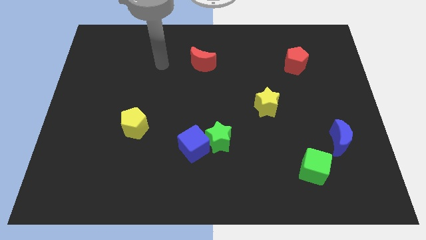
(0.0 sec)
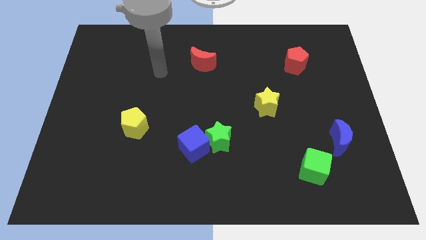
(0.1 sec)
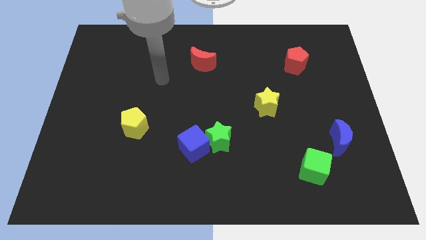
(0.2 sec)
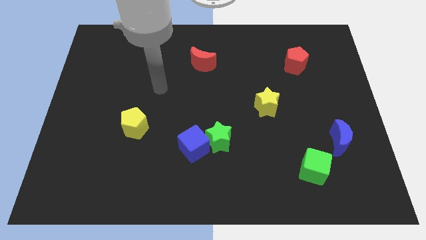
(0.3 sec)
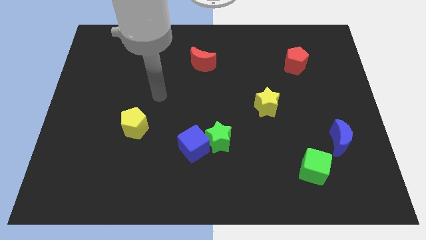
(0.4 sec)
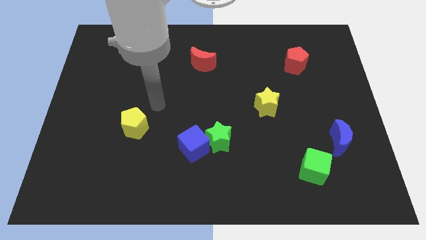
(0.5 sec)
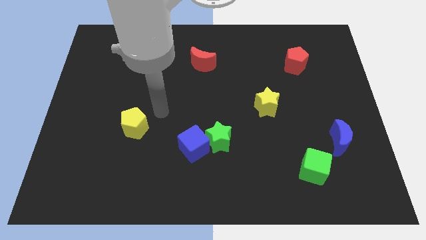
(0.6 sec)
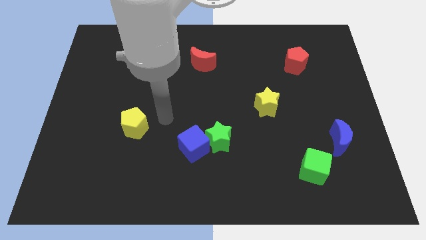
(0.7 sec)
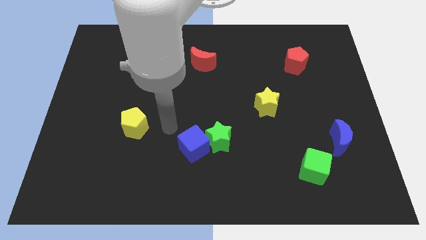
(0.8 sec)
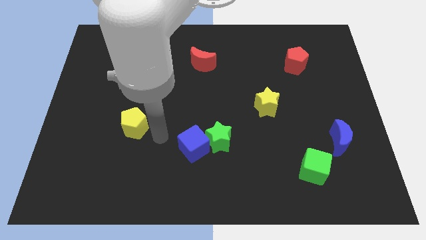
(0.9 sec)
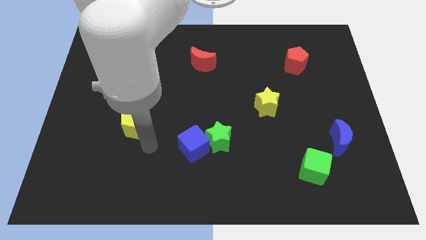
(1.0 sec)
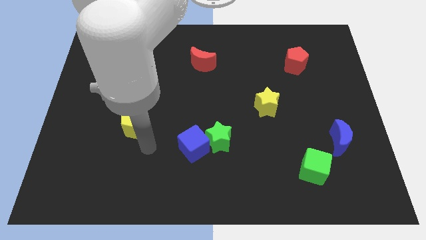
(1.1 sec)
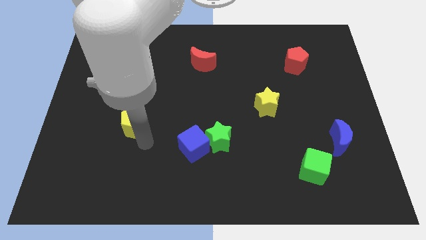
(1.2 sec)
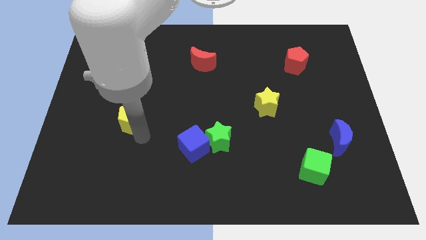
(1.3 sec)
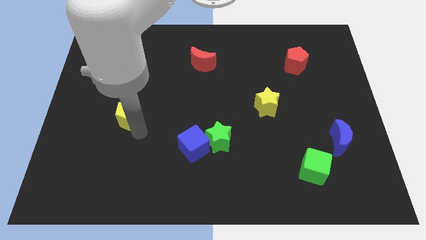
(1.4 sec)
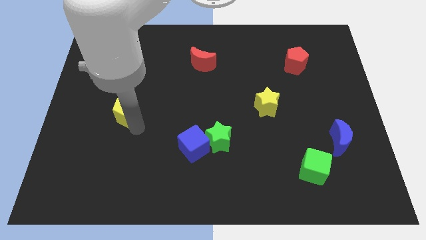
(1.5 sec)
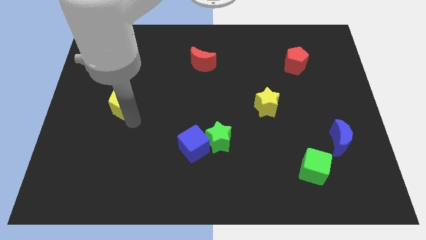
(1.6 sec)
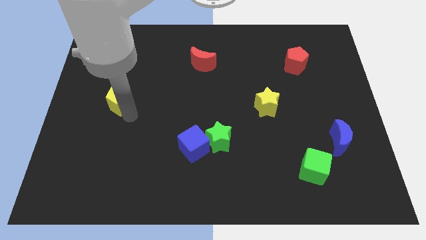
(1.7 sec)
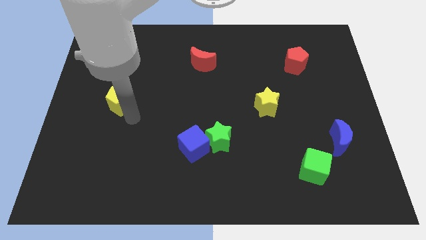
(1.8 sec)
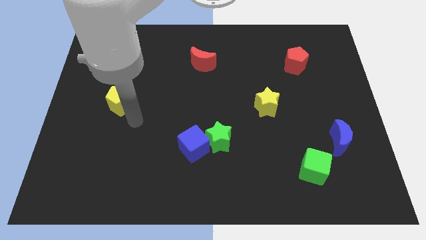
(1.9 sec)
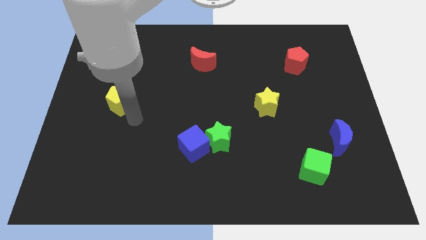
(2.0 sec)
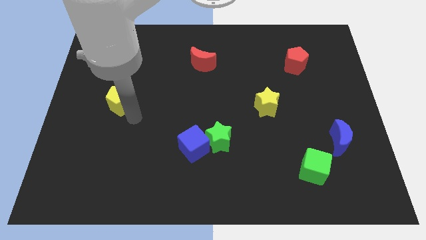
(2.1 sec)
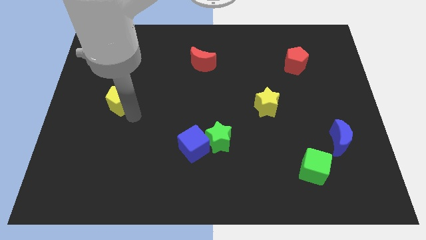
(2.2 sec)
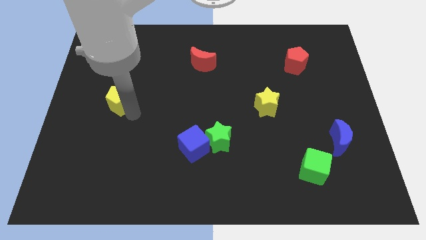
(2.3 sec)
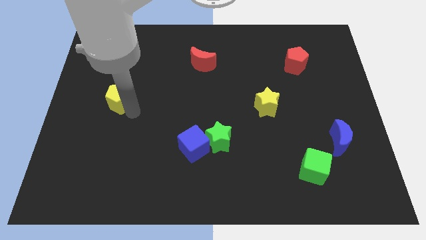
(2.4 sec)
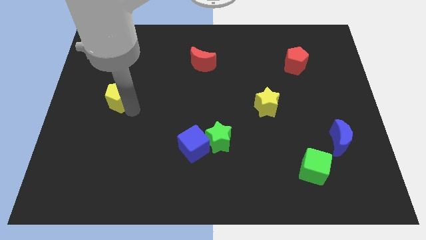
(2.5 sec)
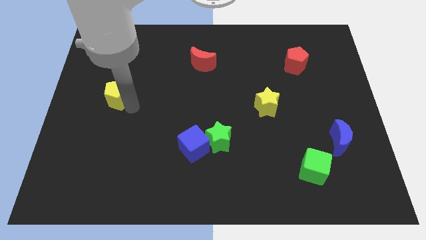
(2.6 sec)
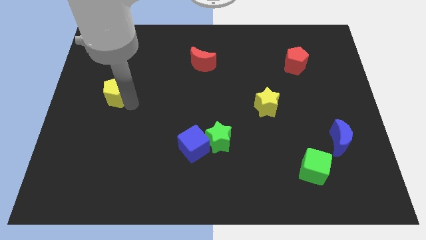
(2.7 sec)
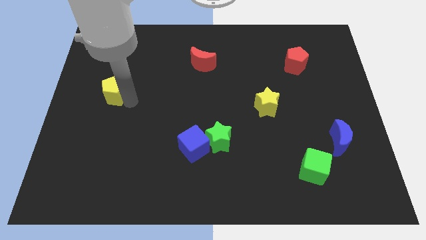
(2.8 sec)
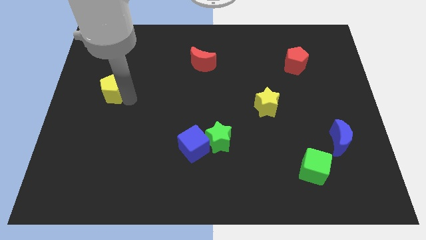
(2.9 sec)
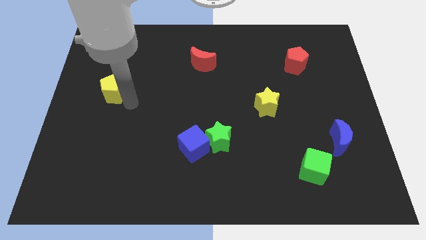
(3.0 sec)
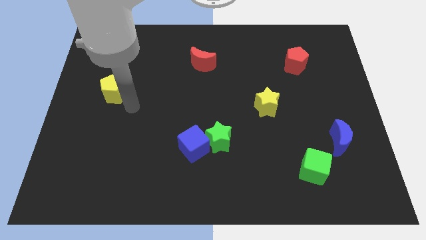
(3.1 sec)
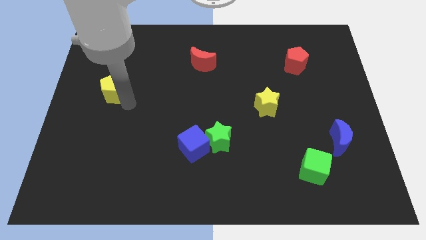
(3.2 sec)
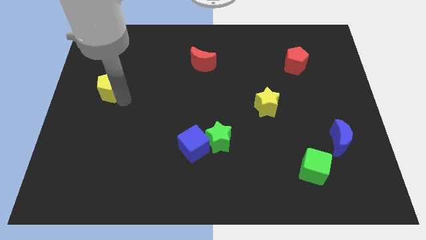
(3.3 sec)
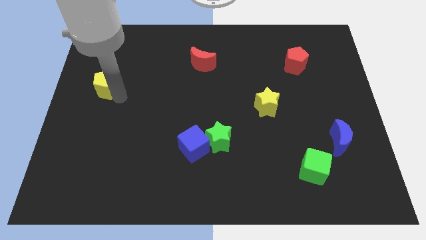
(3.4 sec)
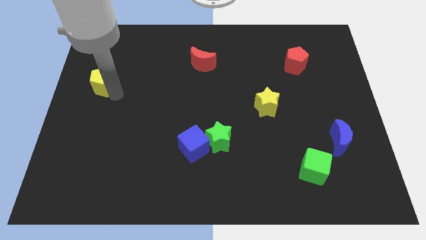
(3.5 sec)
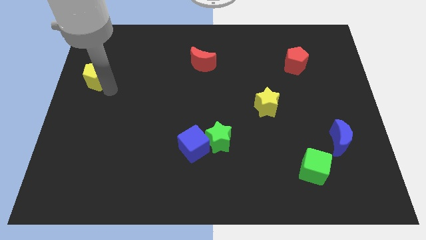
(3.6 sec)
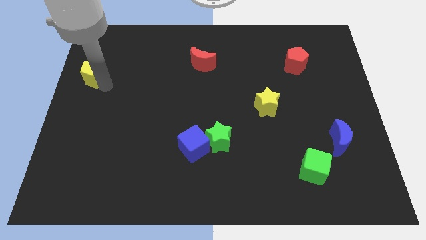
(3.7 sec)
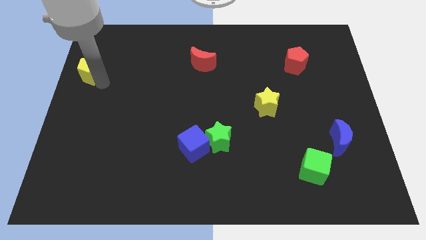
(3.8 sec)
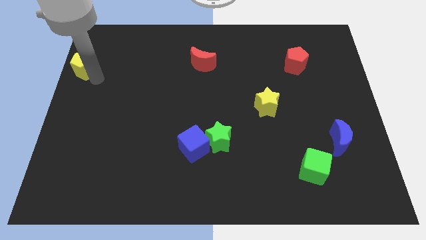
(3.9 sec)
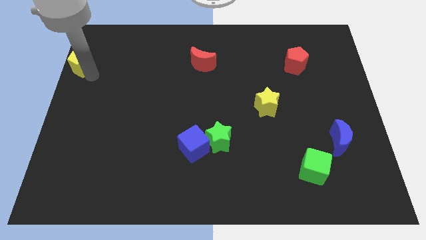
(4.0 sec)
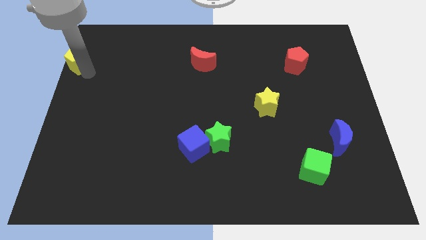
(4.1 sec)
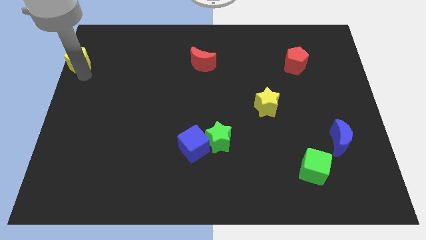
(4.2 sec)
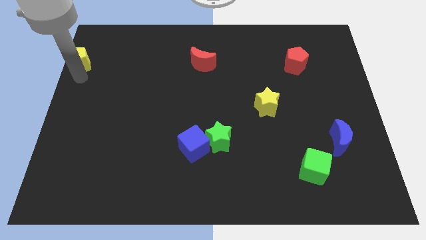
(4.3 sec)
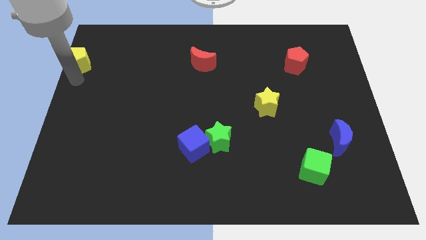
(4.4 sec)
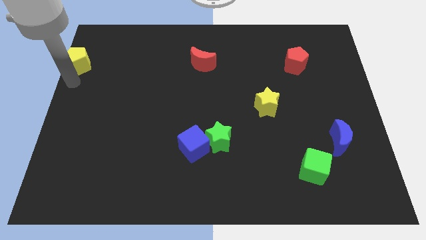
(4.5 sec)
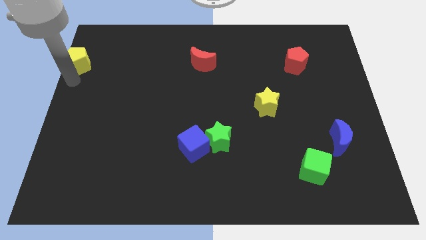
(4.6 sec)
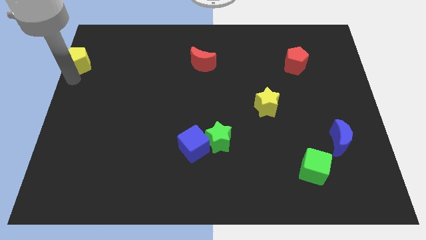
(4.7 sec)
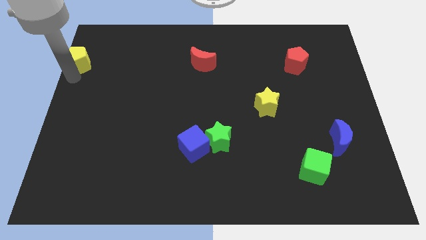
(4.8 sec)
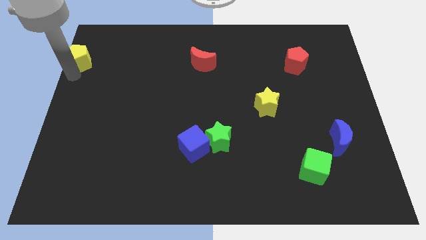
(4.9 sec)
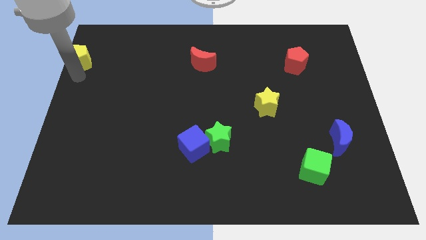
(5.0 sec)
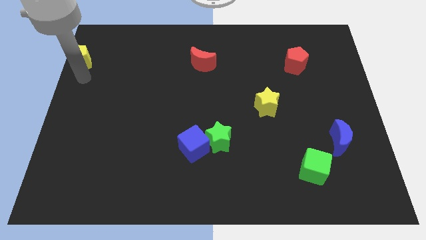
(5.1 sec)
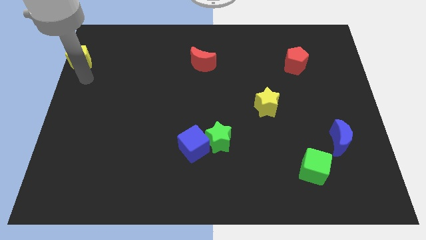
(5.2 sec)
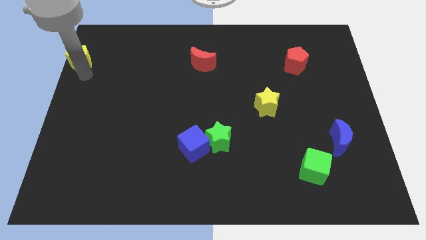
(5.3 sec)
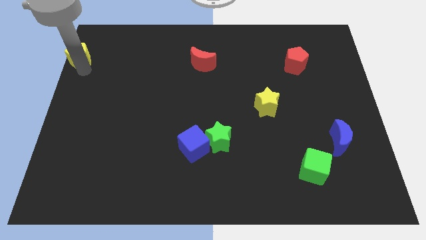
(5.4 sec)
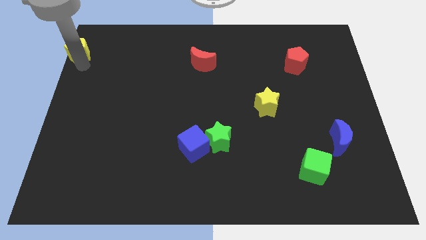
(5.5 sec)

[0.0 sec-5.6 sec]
put the yellow pentagon to the upper left corner

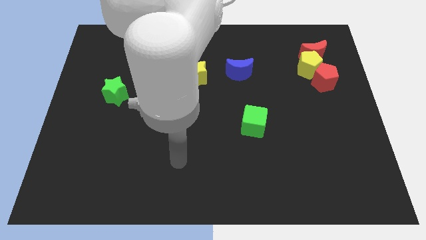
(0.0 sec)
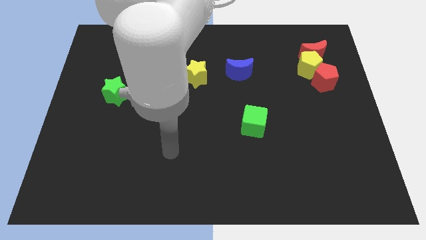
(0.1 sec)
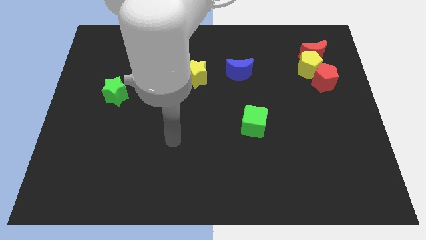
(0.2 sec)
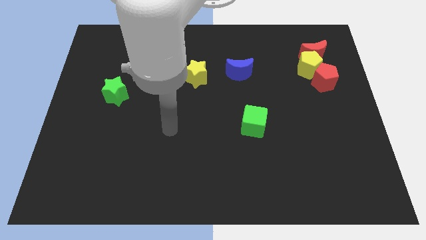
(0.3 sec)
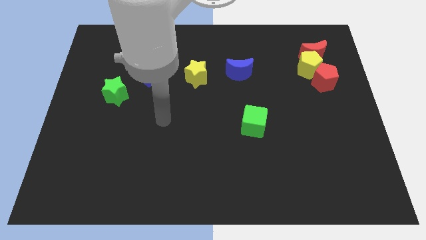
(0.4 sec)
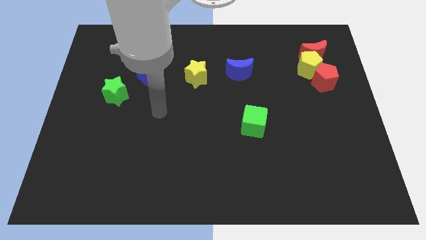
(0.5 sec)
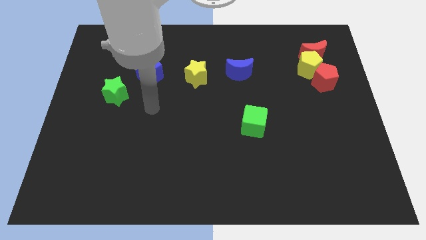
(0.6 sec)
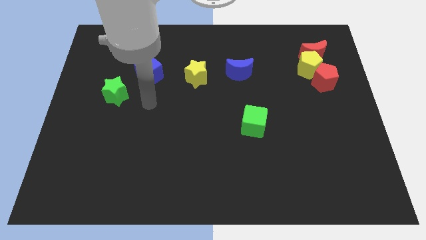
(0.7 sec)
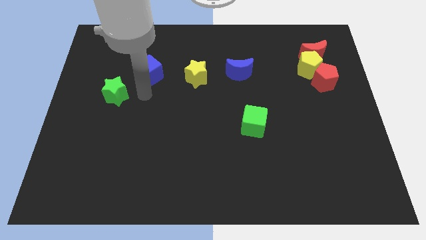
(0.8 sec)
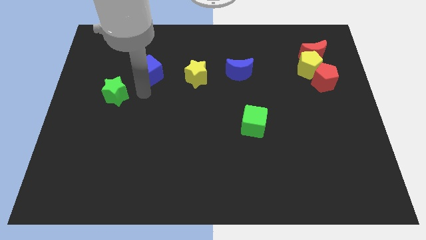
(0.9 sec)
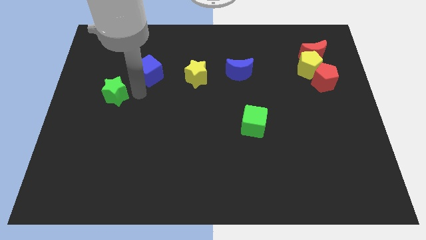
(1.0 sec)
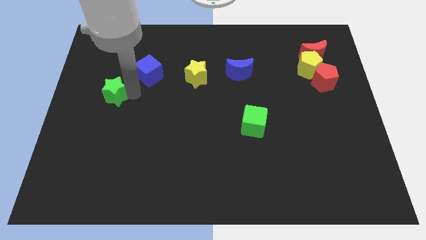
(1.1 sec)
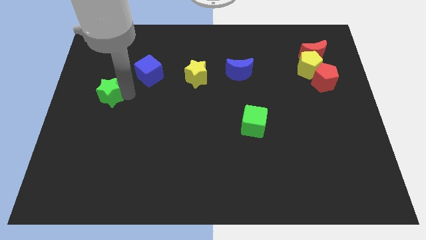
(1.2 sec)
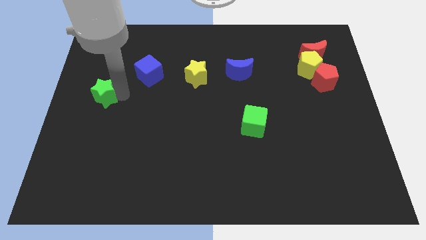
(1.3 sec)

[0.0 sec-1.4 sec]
put the green star to the left side of the board

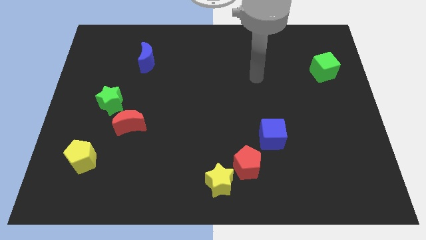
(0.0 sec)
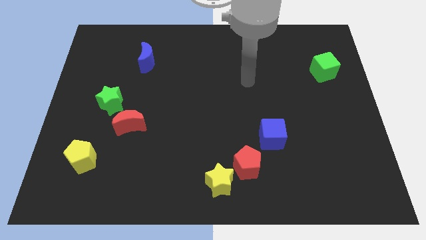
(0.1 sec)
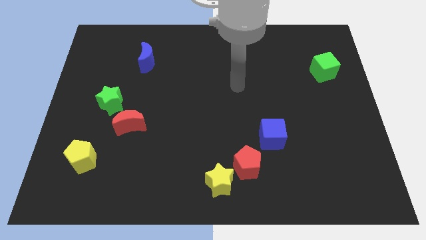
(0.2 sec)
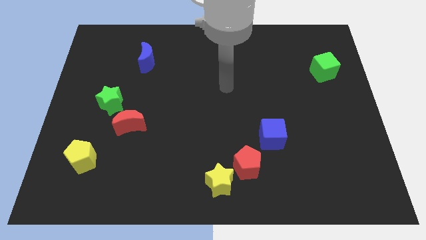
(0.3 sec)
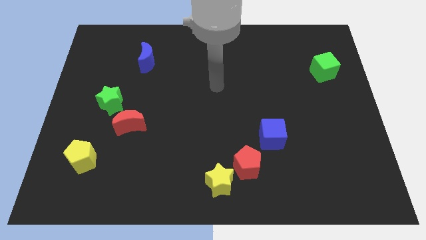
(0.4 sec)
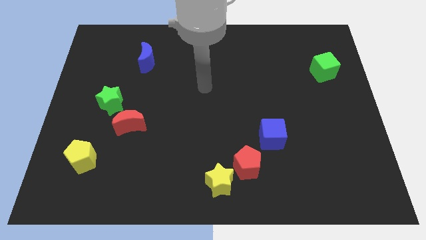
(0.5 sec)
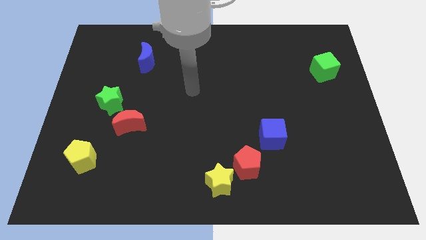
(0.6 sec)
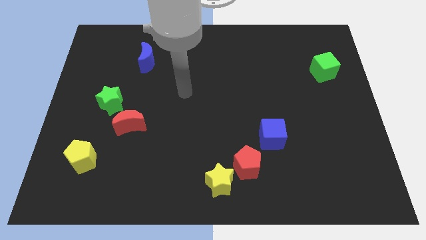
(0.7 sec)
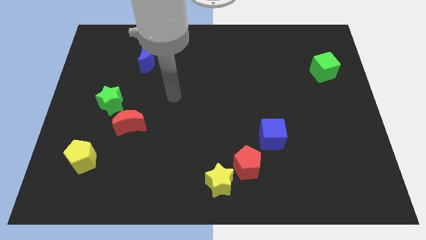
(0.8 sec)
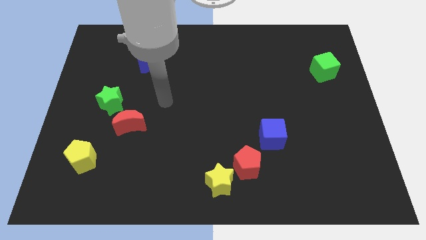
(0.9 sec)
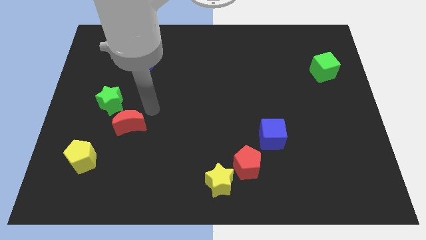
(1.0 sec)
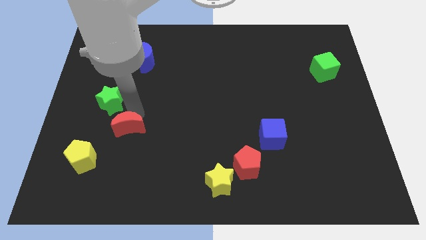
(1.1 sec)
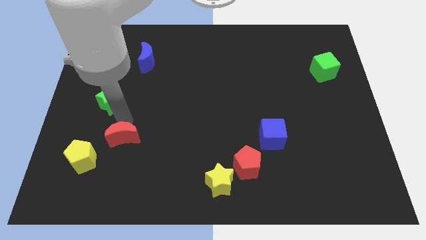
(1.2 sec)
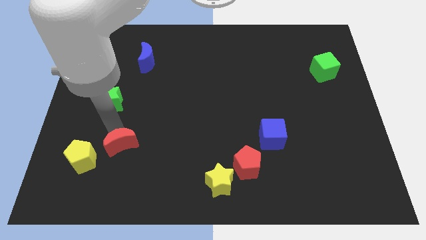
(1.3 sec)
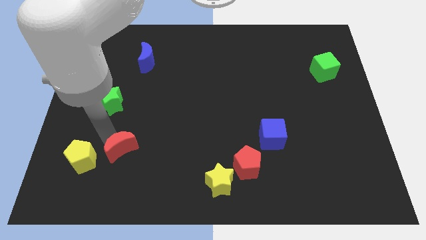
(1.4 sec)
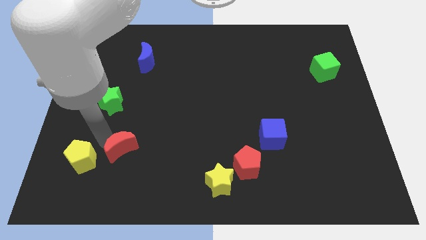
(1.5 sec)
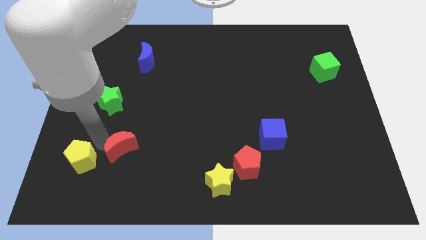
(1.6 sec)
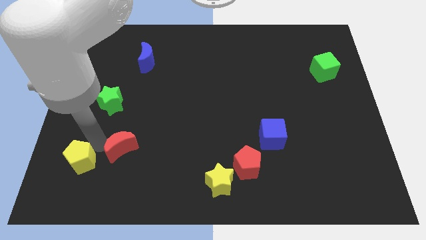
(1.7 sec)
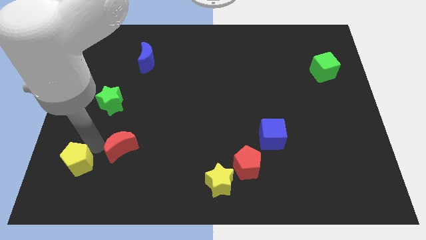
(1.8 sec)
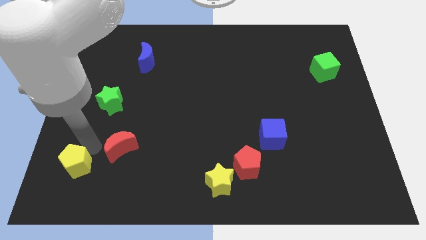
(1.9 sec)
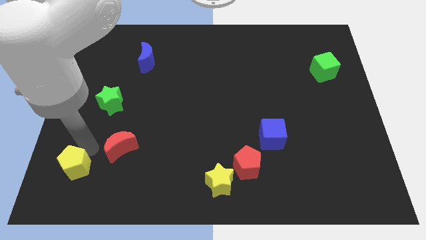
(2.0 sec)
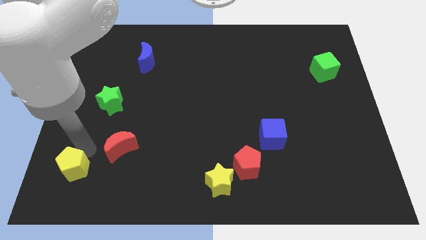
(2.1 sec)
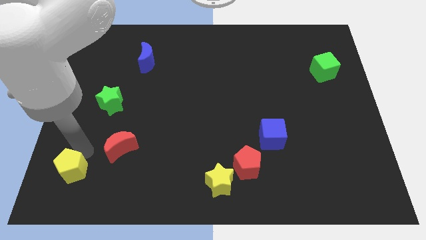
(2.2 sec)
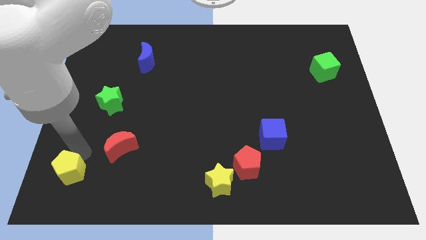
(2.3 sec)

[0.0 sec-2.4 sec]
slide the yellow pentagon to the bottom left of the board
